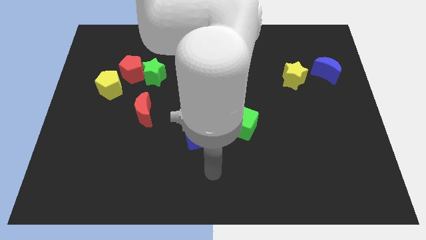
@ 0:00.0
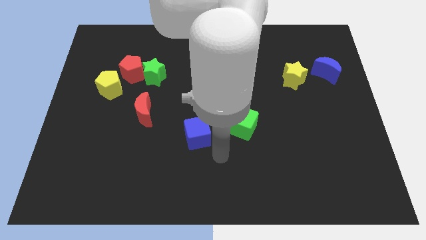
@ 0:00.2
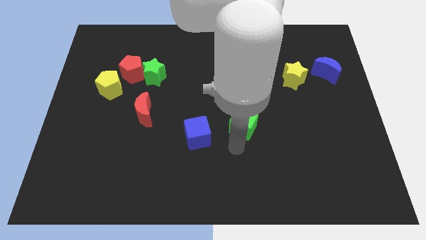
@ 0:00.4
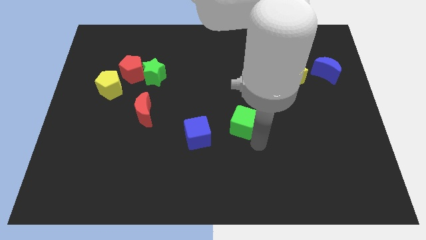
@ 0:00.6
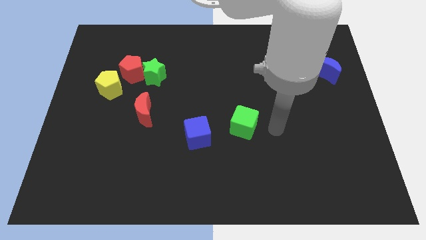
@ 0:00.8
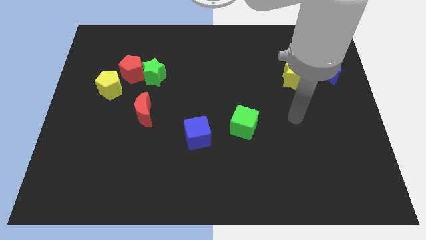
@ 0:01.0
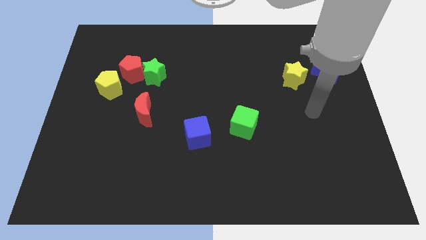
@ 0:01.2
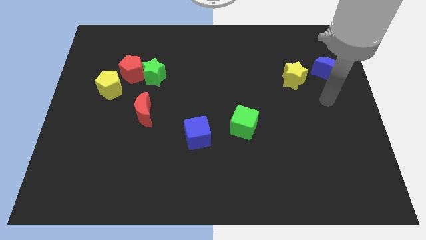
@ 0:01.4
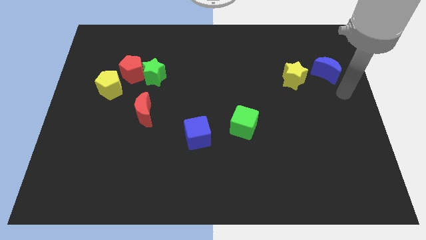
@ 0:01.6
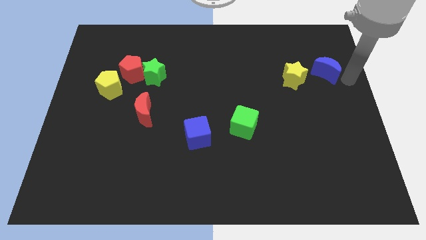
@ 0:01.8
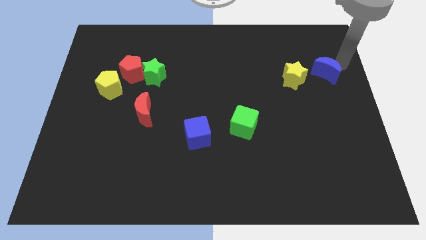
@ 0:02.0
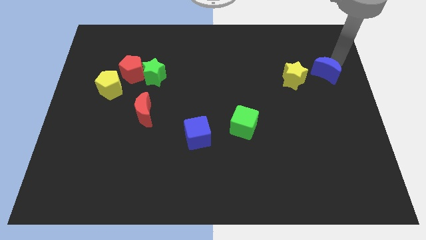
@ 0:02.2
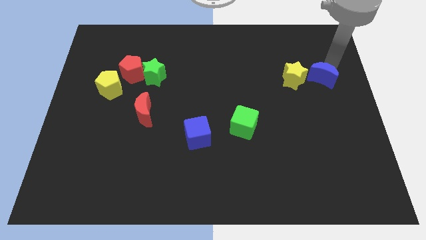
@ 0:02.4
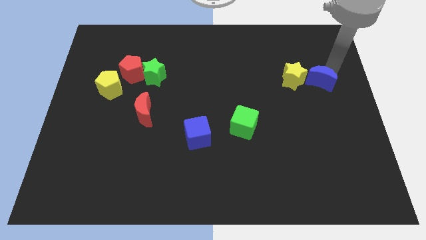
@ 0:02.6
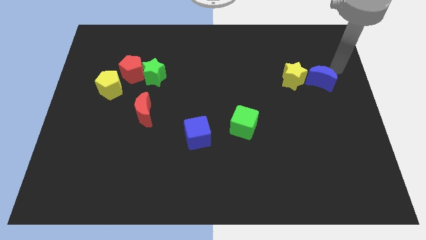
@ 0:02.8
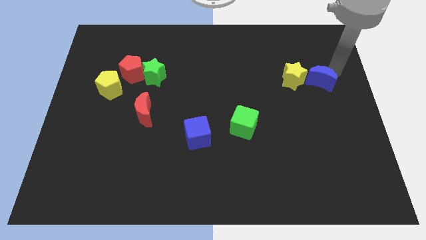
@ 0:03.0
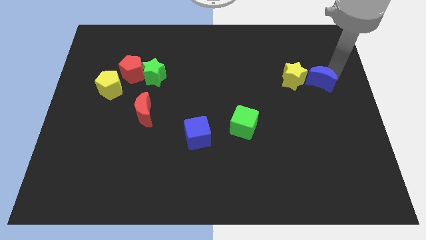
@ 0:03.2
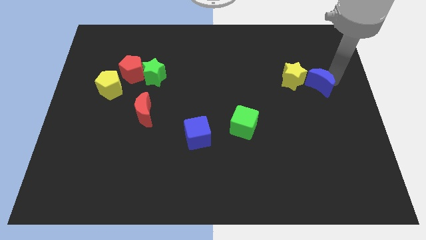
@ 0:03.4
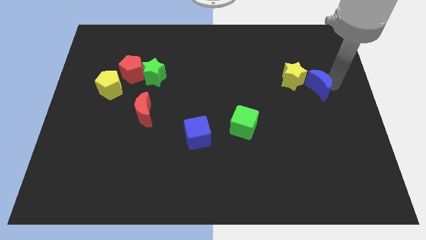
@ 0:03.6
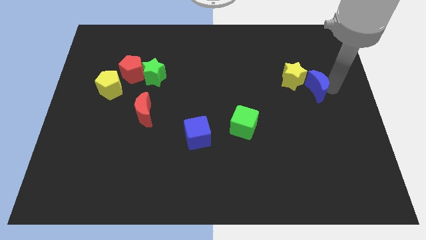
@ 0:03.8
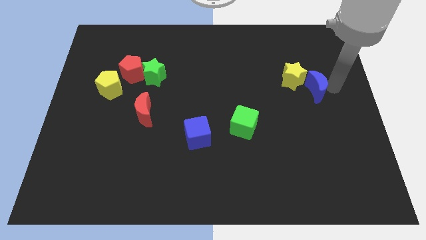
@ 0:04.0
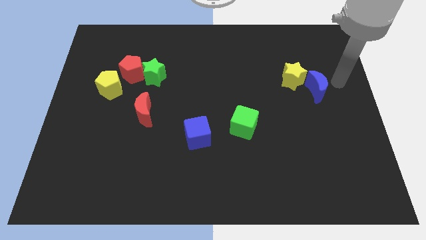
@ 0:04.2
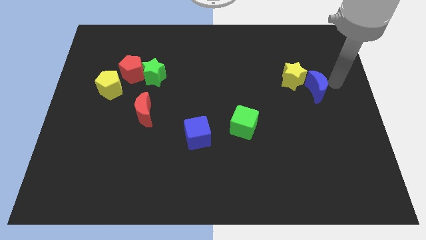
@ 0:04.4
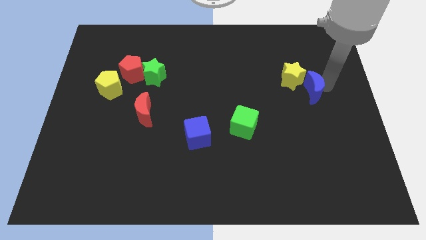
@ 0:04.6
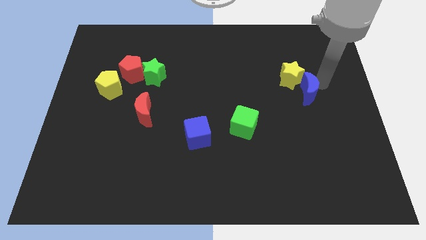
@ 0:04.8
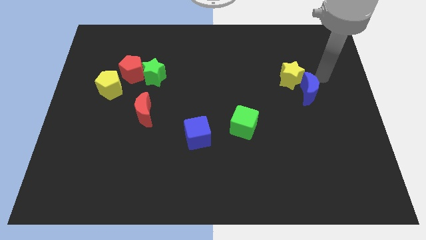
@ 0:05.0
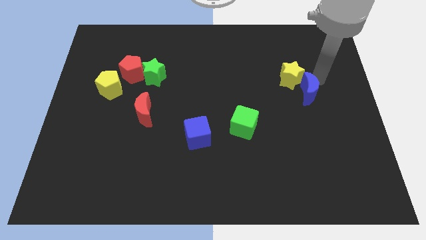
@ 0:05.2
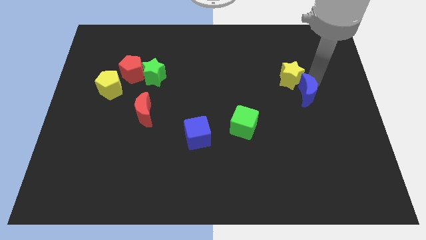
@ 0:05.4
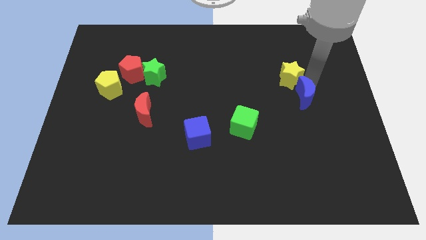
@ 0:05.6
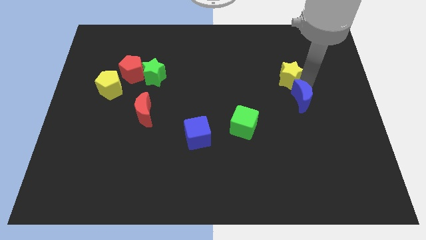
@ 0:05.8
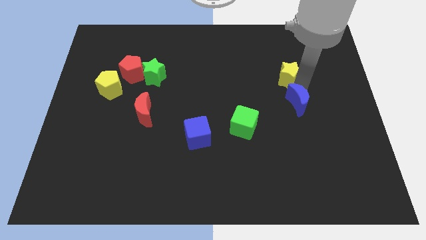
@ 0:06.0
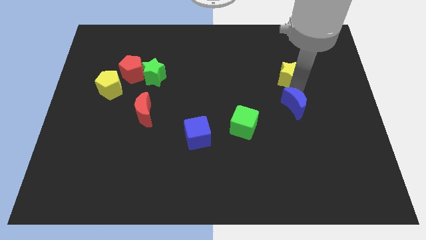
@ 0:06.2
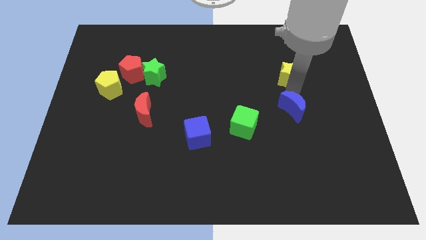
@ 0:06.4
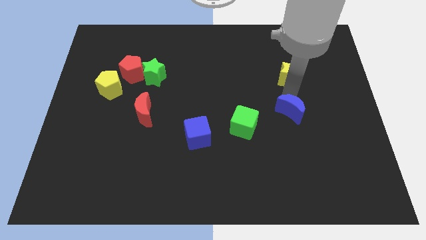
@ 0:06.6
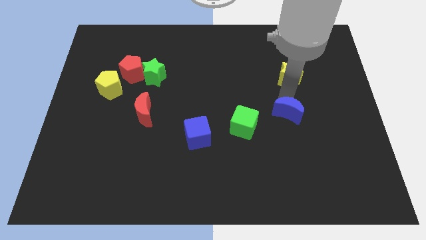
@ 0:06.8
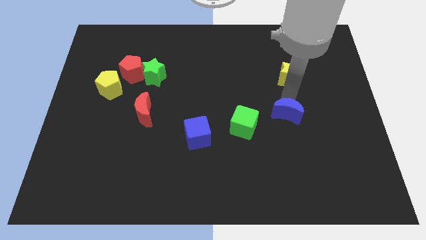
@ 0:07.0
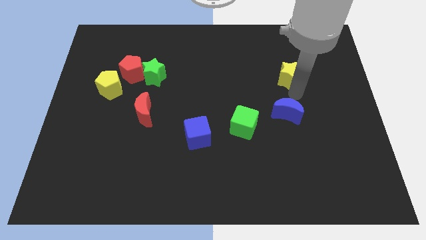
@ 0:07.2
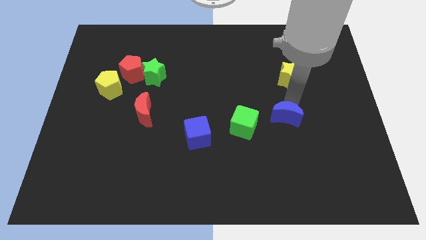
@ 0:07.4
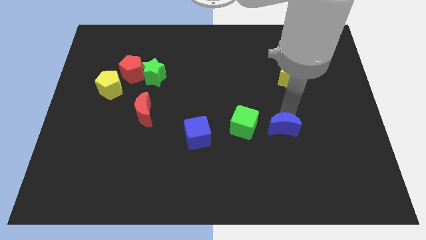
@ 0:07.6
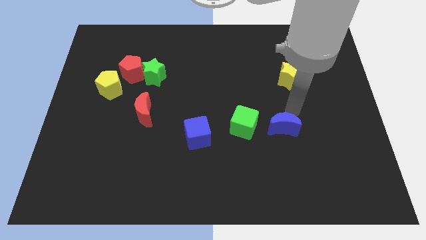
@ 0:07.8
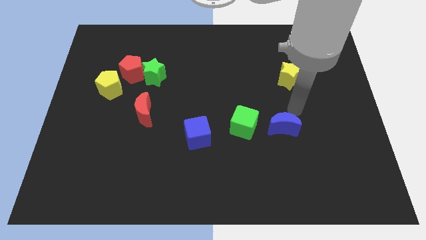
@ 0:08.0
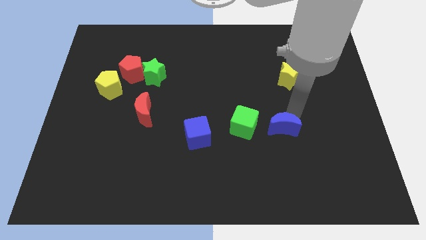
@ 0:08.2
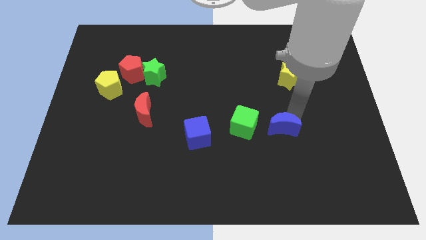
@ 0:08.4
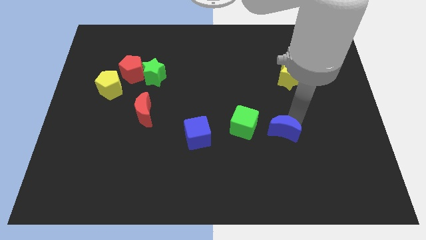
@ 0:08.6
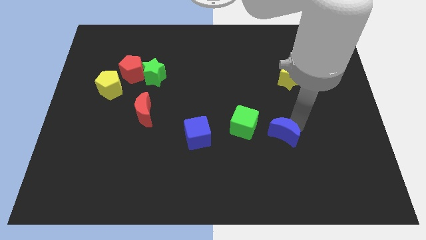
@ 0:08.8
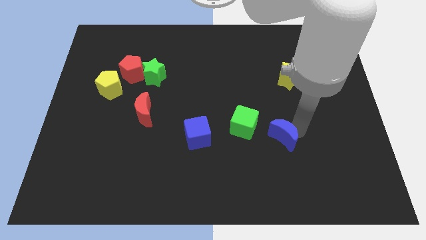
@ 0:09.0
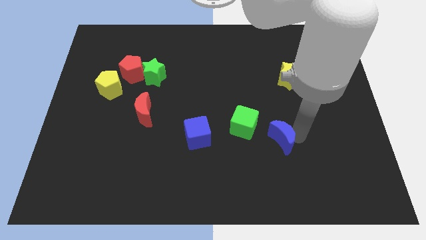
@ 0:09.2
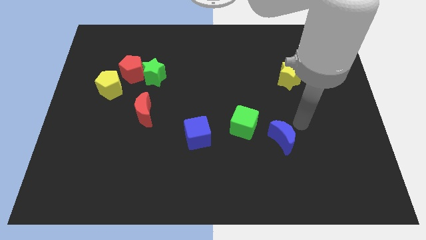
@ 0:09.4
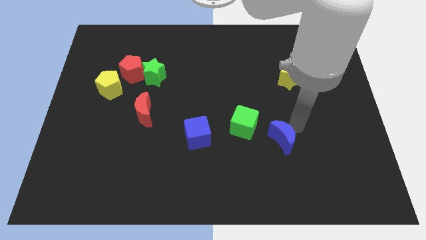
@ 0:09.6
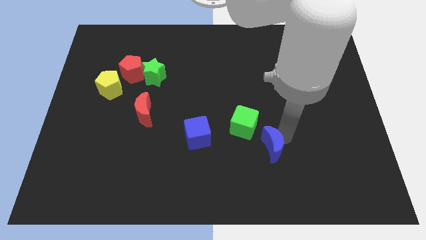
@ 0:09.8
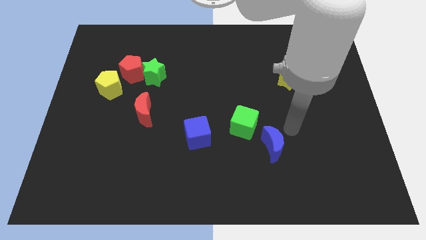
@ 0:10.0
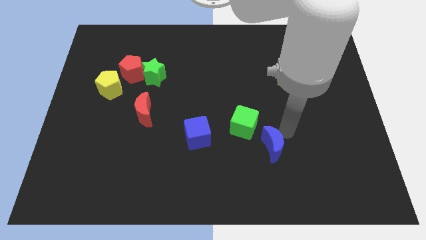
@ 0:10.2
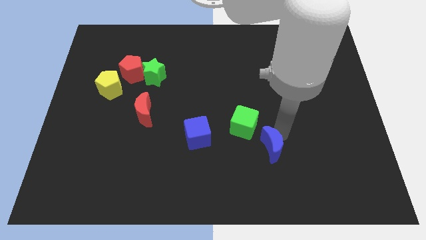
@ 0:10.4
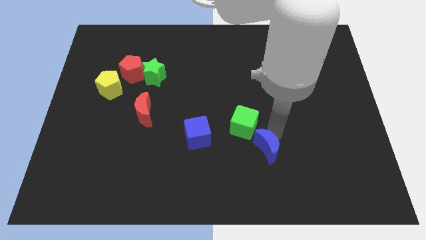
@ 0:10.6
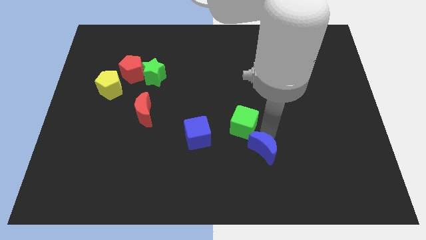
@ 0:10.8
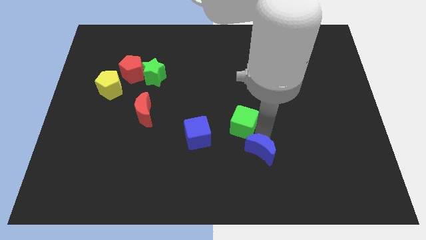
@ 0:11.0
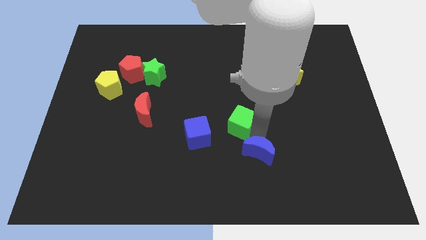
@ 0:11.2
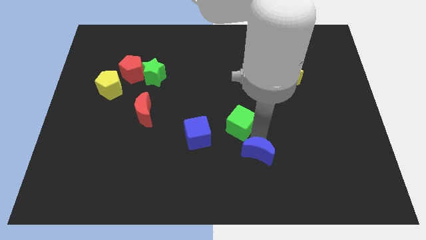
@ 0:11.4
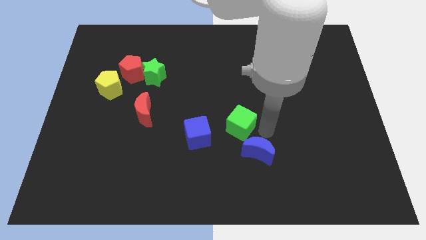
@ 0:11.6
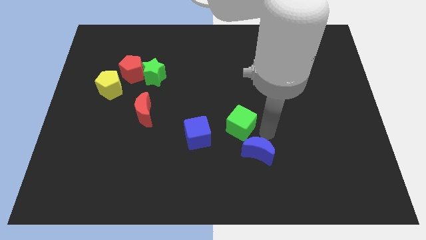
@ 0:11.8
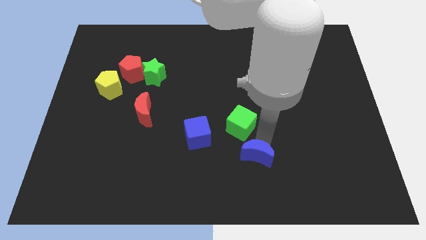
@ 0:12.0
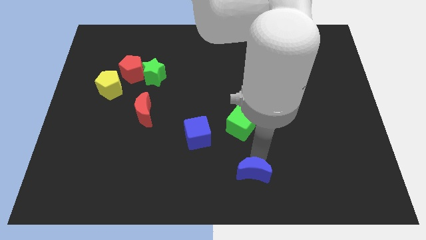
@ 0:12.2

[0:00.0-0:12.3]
slide the blue moon to the bottom side

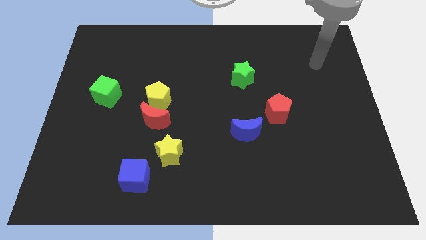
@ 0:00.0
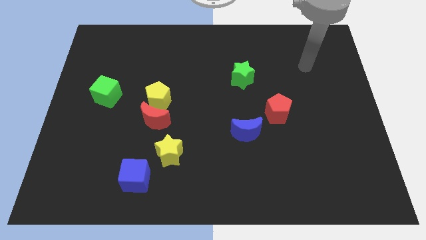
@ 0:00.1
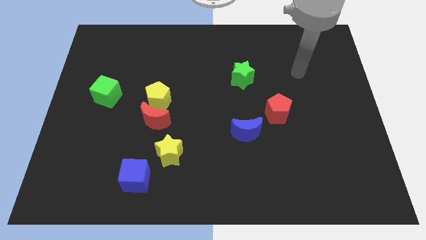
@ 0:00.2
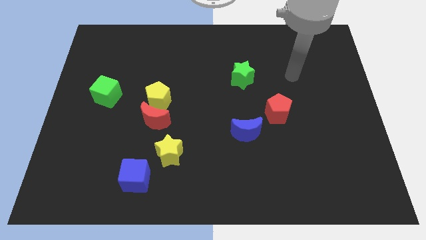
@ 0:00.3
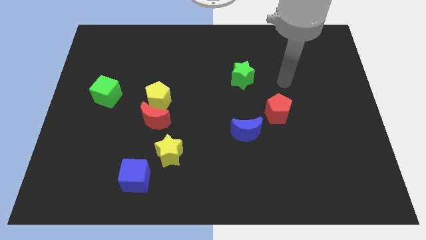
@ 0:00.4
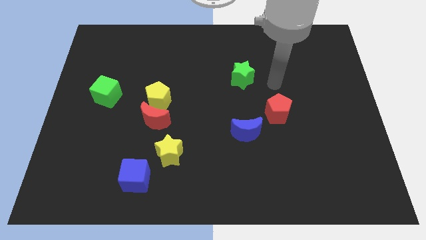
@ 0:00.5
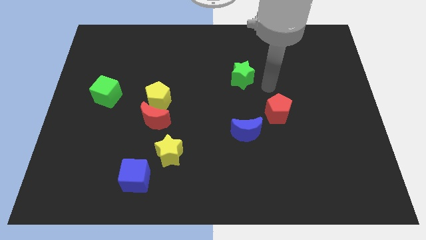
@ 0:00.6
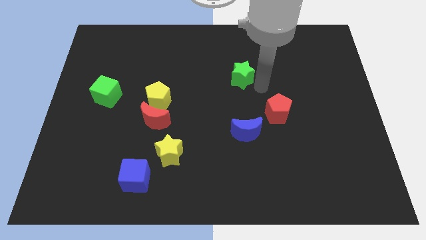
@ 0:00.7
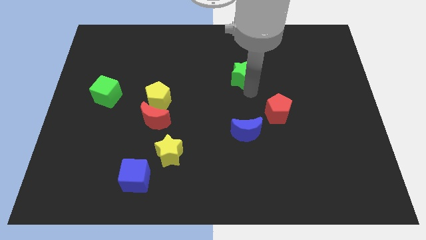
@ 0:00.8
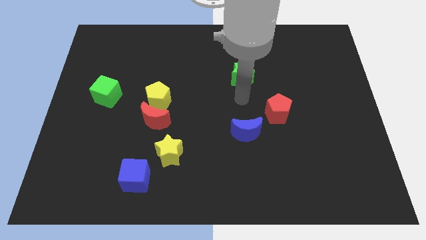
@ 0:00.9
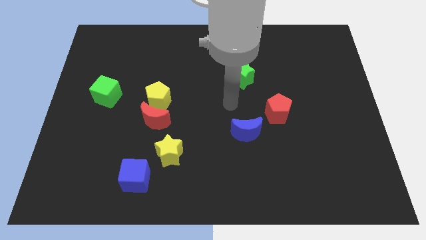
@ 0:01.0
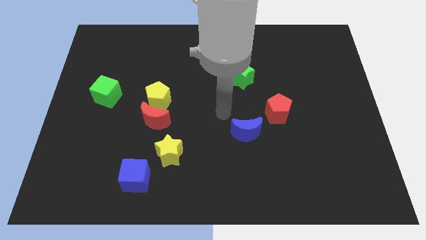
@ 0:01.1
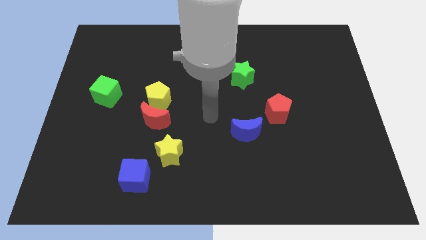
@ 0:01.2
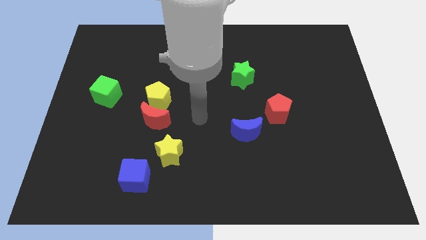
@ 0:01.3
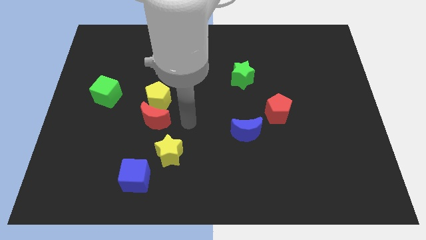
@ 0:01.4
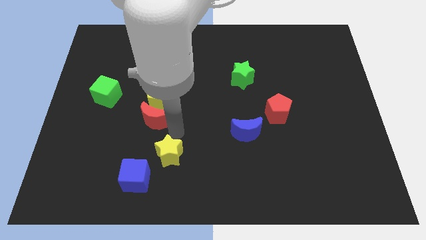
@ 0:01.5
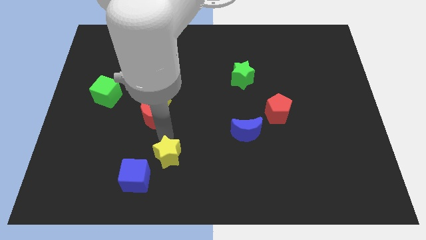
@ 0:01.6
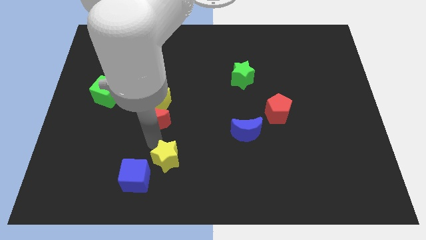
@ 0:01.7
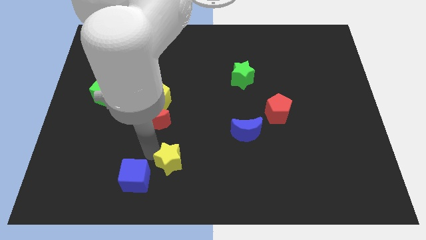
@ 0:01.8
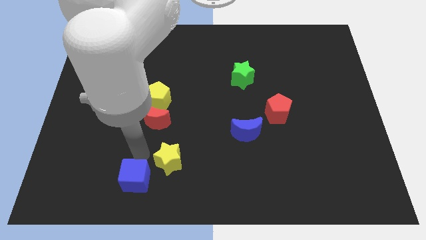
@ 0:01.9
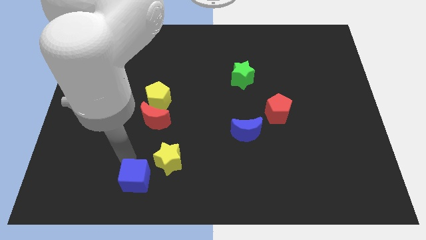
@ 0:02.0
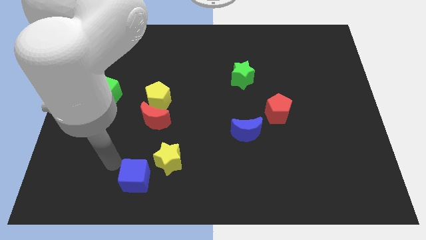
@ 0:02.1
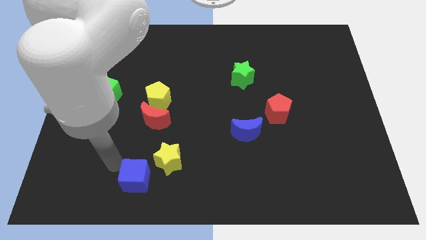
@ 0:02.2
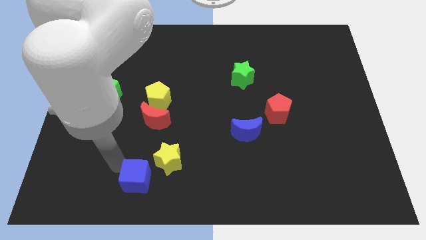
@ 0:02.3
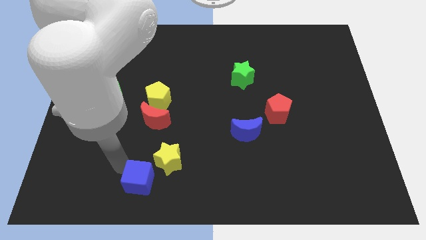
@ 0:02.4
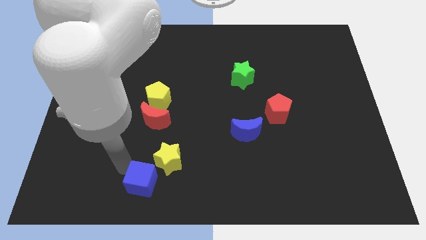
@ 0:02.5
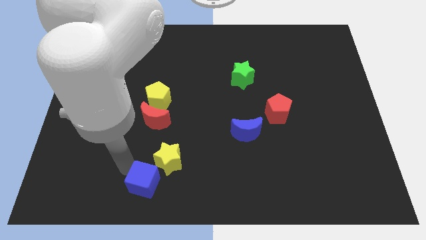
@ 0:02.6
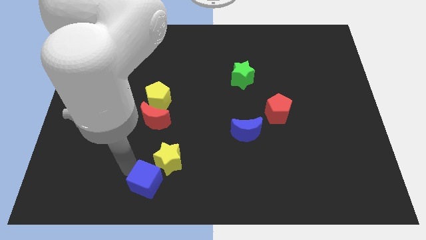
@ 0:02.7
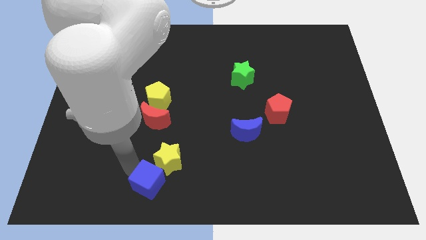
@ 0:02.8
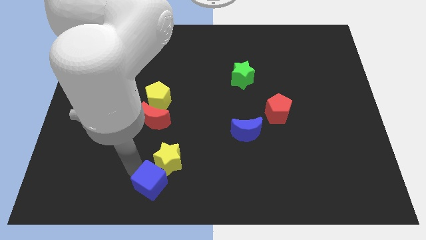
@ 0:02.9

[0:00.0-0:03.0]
put the blue cube to the bottom side
